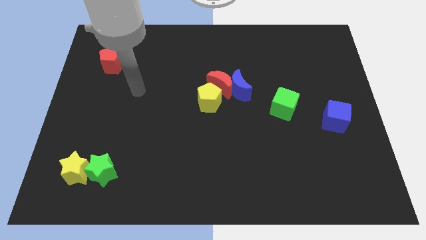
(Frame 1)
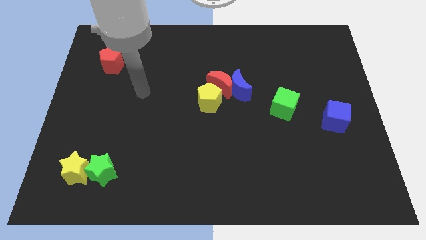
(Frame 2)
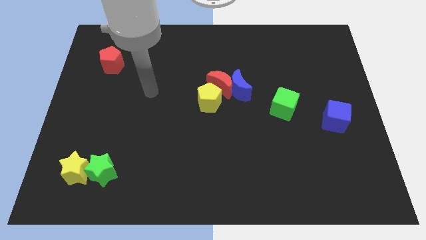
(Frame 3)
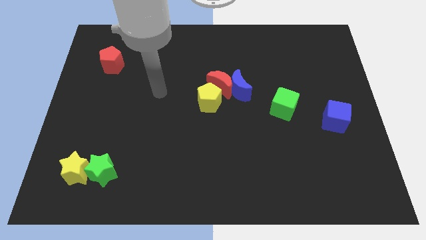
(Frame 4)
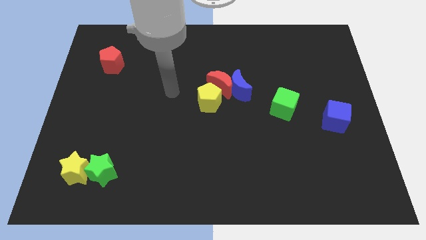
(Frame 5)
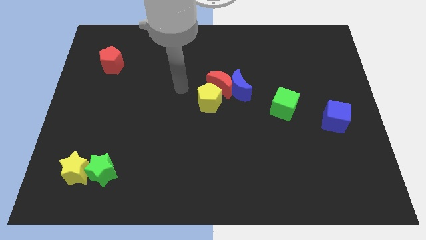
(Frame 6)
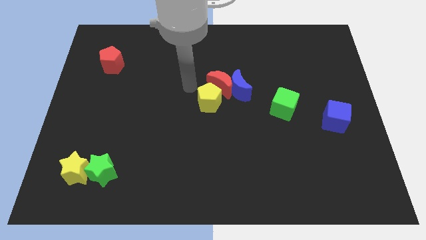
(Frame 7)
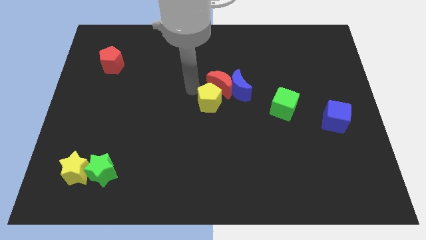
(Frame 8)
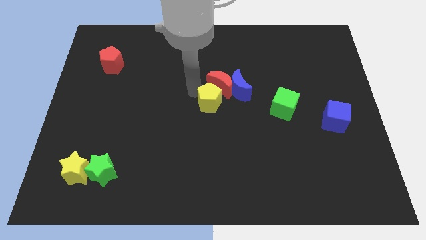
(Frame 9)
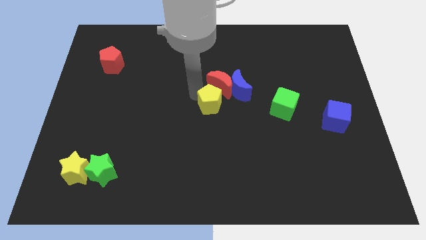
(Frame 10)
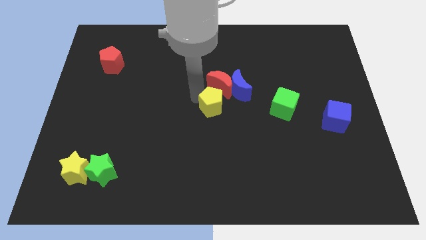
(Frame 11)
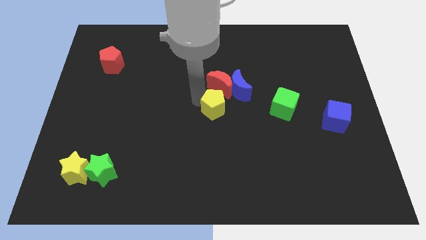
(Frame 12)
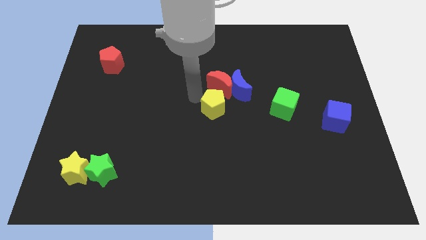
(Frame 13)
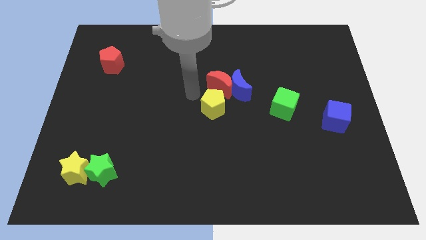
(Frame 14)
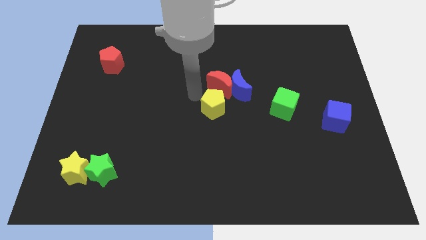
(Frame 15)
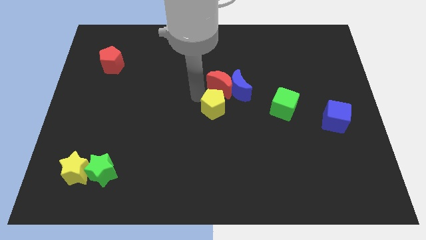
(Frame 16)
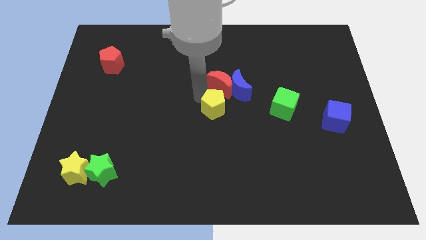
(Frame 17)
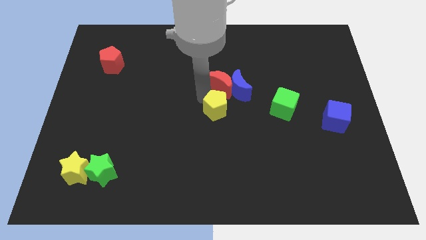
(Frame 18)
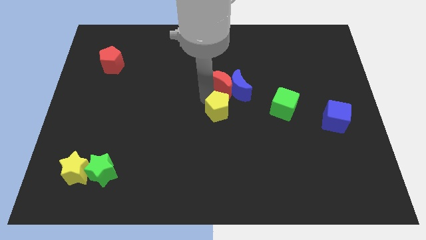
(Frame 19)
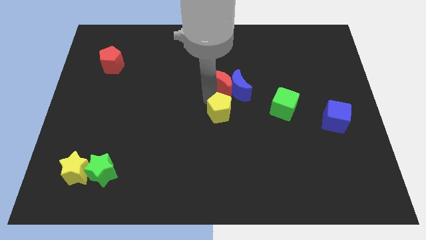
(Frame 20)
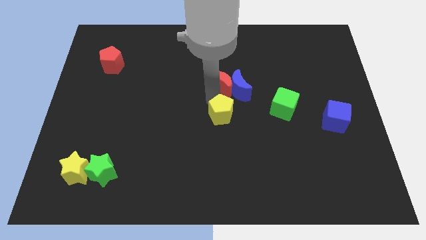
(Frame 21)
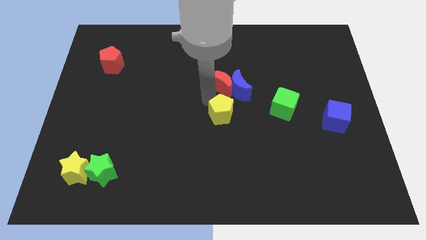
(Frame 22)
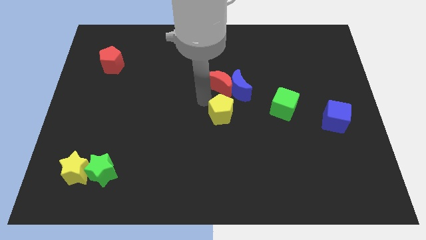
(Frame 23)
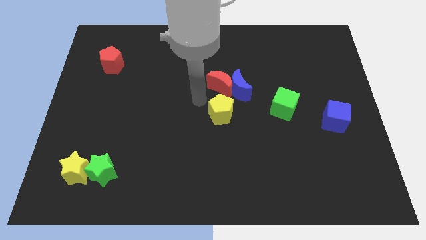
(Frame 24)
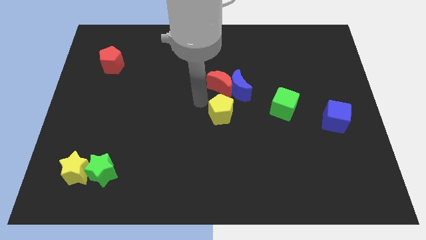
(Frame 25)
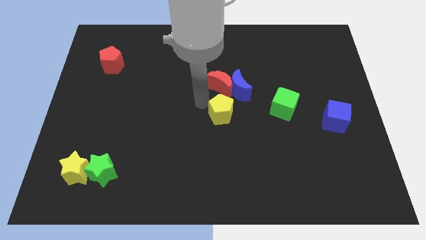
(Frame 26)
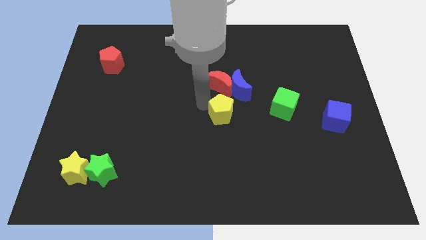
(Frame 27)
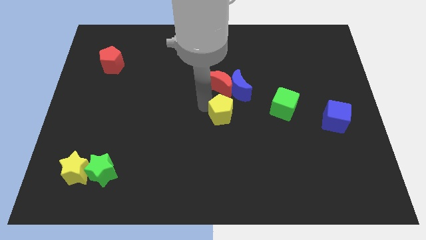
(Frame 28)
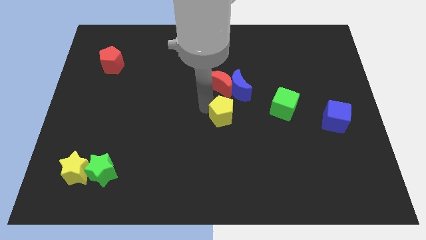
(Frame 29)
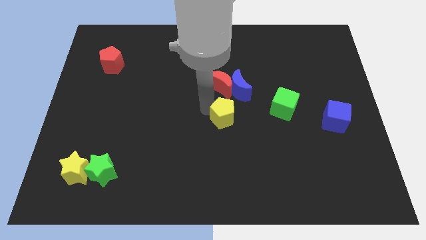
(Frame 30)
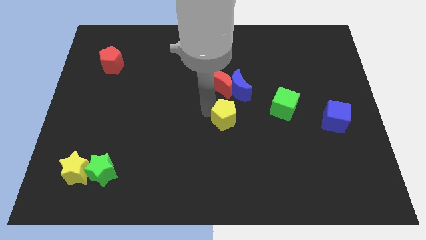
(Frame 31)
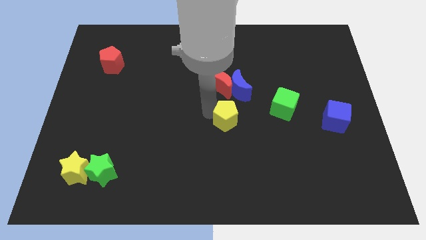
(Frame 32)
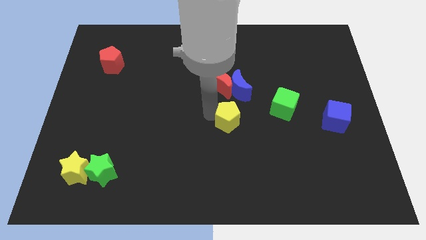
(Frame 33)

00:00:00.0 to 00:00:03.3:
push the yellow pentagon downwards and to the right diagonally somewhat

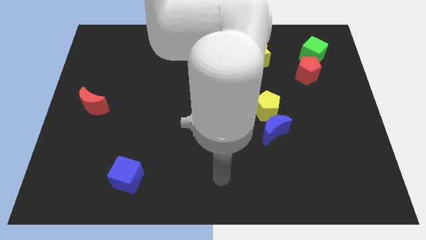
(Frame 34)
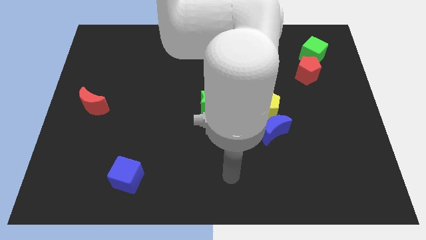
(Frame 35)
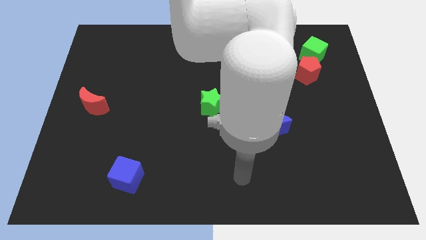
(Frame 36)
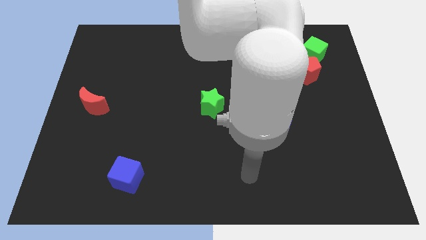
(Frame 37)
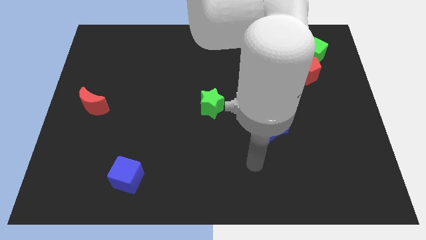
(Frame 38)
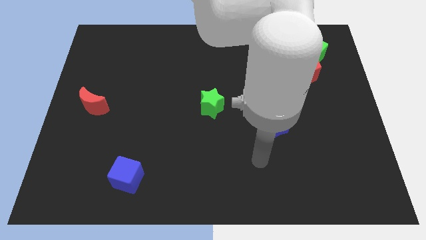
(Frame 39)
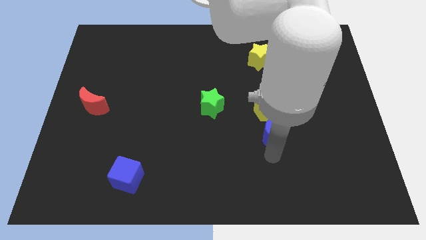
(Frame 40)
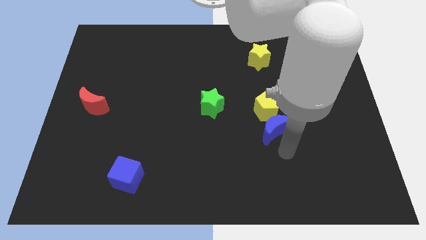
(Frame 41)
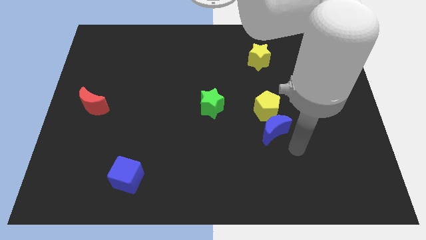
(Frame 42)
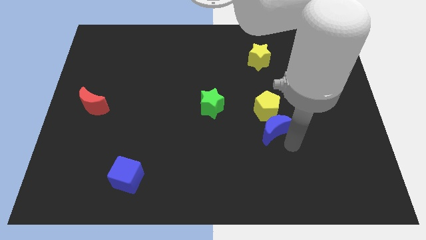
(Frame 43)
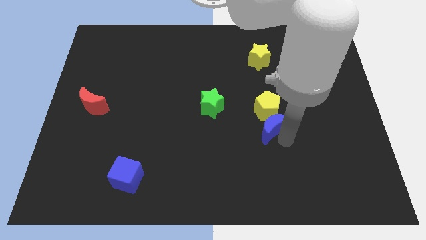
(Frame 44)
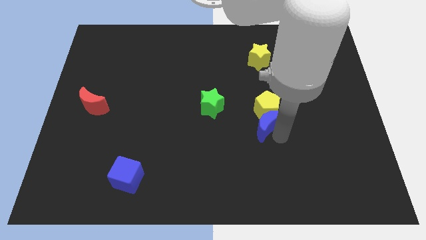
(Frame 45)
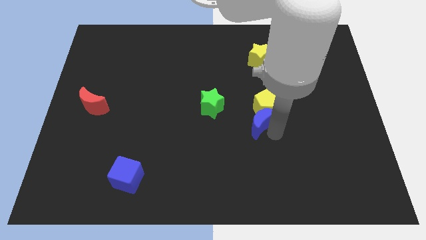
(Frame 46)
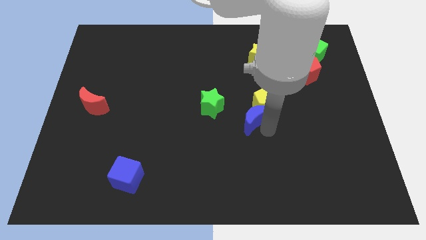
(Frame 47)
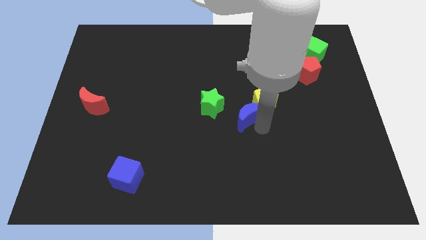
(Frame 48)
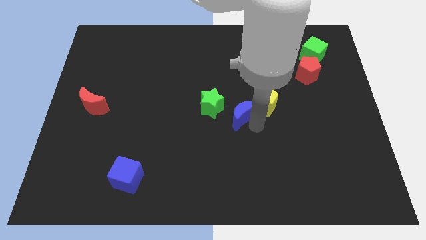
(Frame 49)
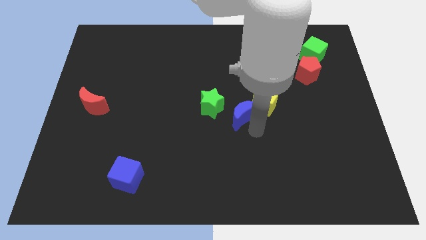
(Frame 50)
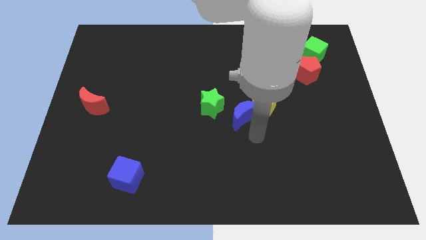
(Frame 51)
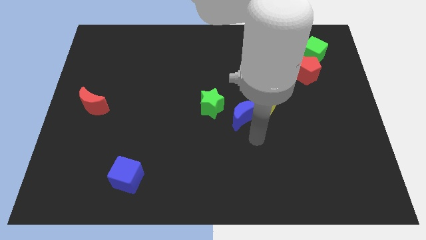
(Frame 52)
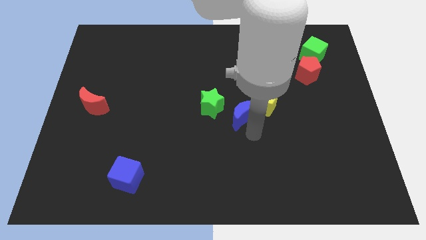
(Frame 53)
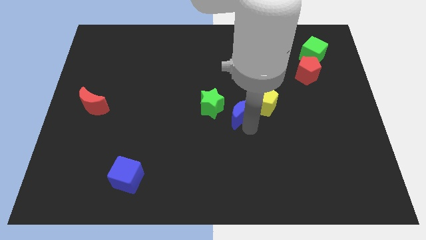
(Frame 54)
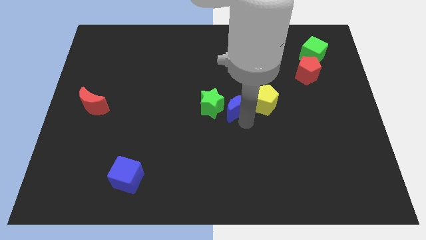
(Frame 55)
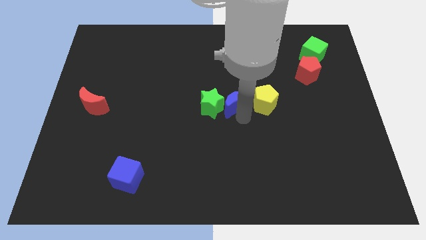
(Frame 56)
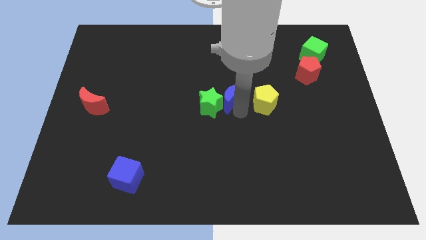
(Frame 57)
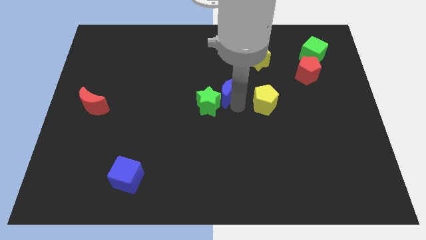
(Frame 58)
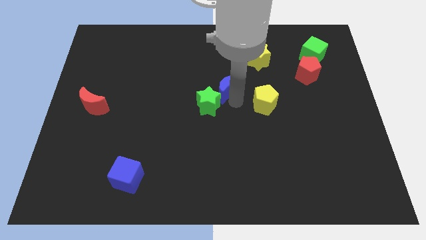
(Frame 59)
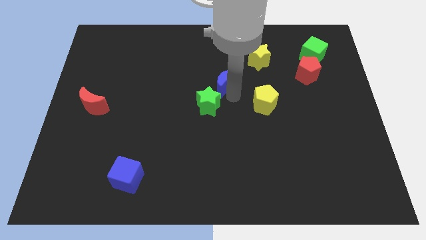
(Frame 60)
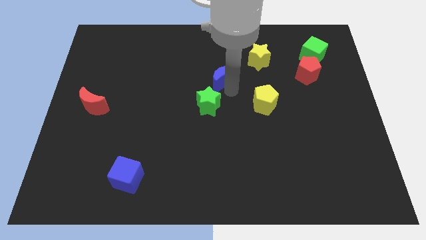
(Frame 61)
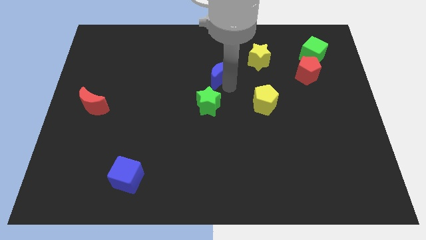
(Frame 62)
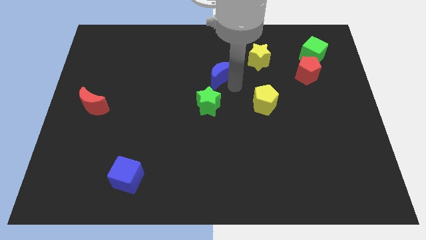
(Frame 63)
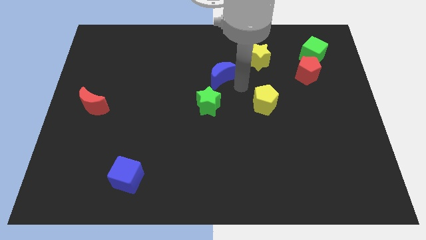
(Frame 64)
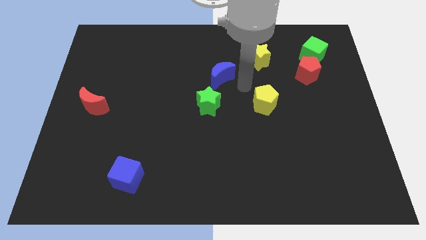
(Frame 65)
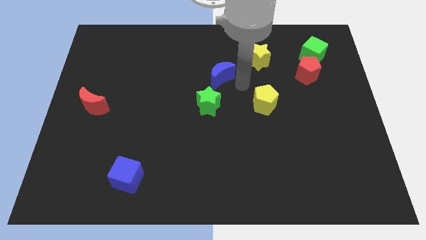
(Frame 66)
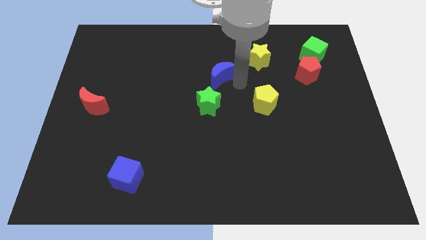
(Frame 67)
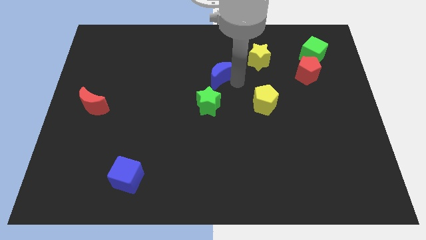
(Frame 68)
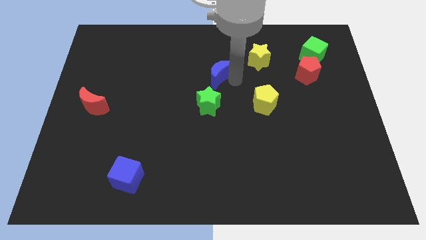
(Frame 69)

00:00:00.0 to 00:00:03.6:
move the blue moon upwards and then left

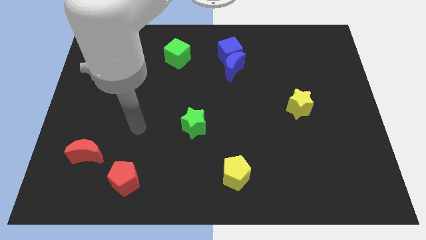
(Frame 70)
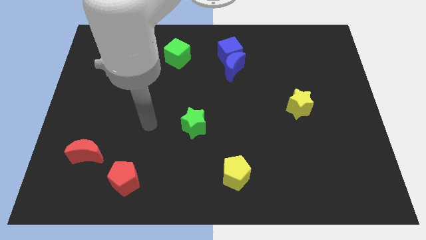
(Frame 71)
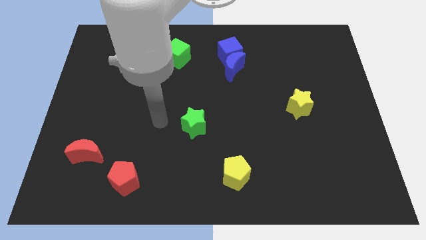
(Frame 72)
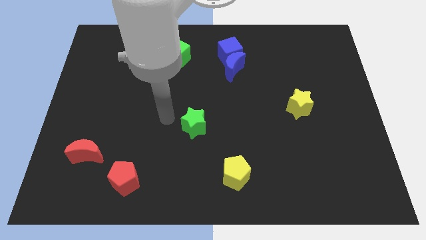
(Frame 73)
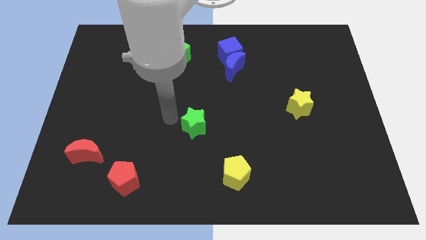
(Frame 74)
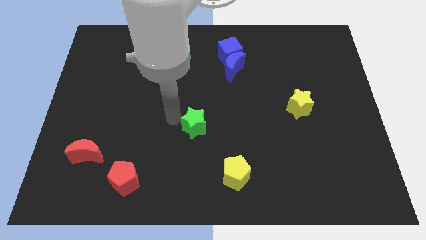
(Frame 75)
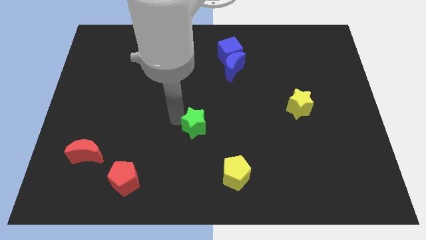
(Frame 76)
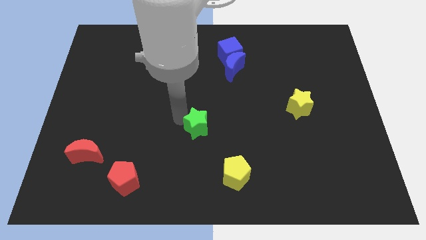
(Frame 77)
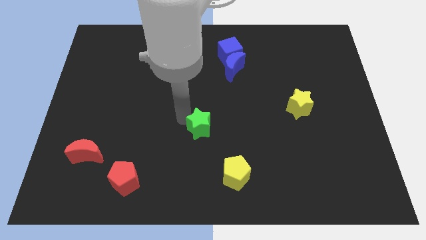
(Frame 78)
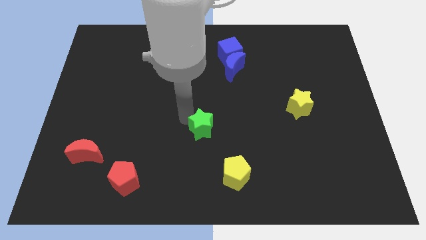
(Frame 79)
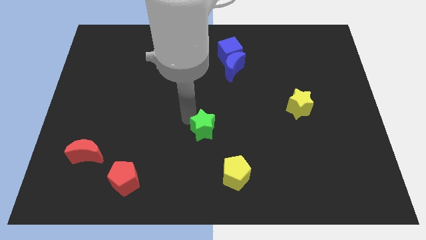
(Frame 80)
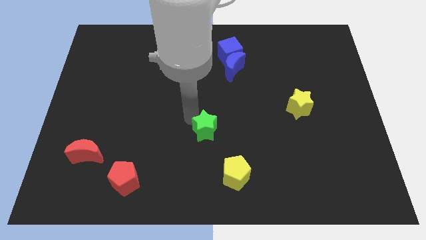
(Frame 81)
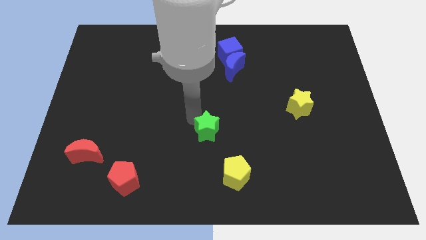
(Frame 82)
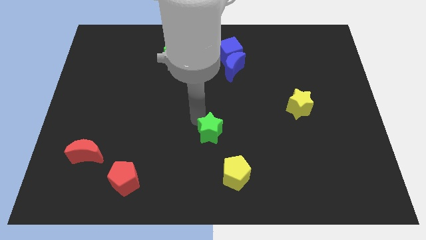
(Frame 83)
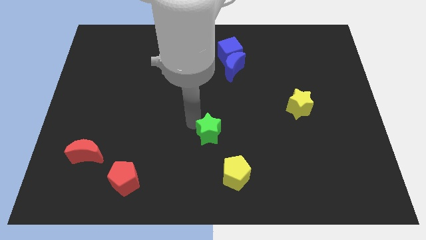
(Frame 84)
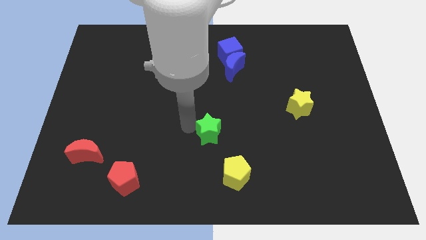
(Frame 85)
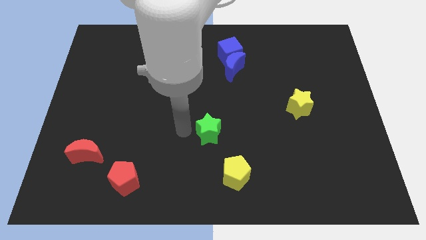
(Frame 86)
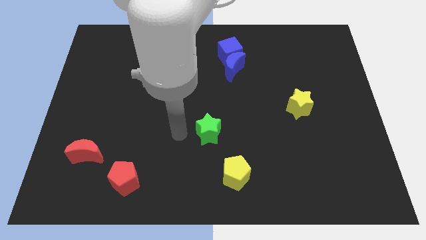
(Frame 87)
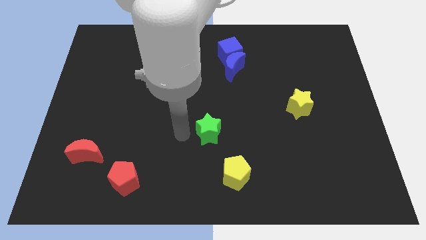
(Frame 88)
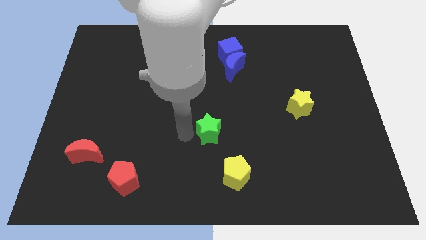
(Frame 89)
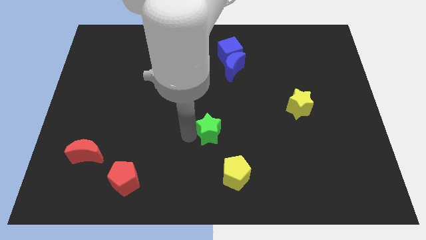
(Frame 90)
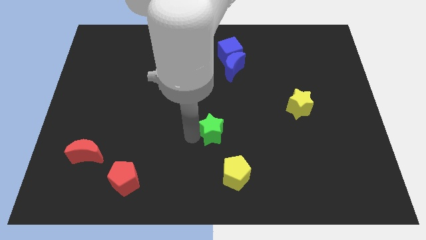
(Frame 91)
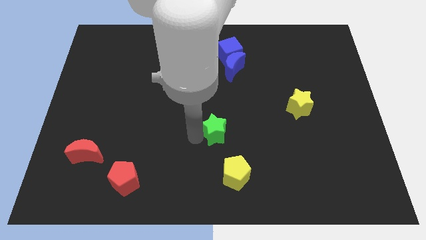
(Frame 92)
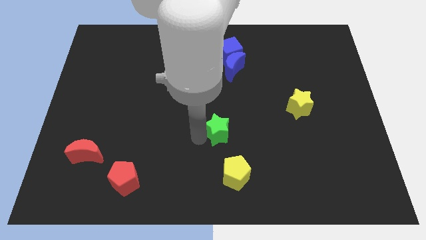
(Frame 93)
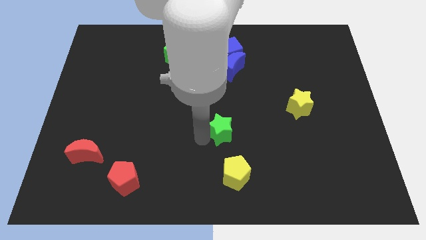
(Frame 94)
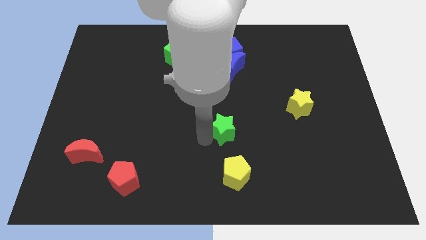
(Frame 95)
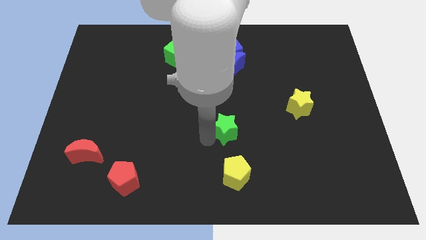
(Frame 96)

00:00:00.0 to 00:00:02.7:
slightly push the green star to the right
